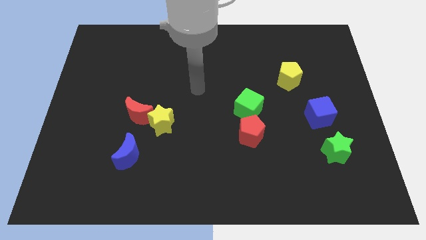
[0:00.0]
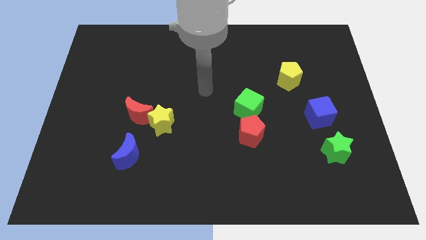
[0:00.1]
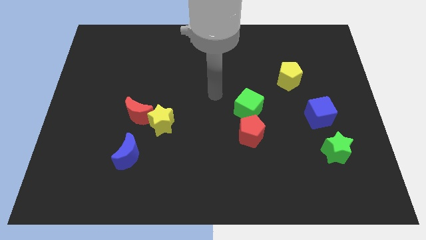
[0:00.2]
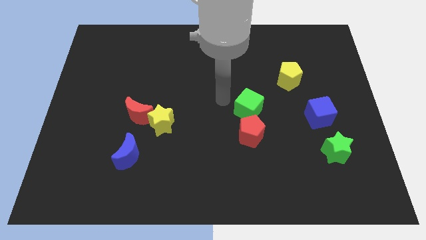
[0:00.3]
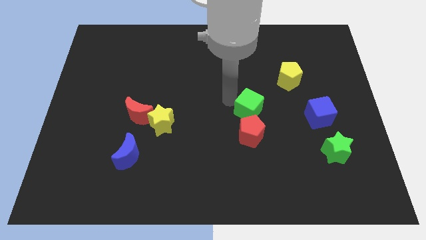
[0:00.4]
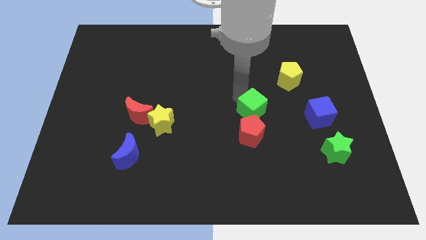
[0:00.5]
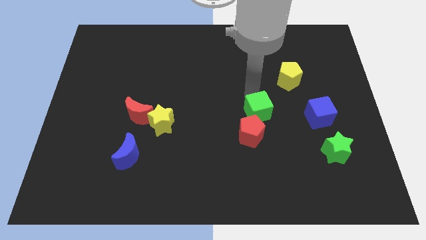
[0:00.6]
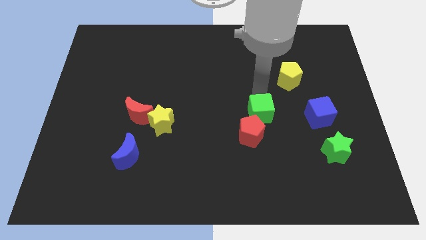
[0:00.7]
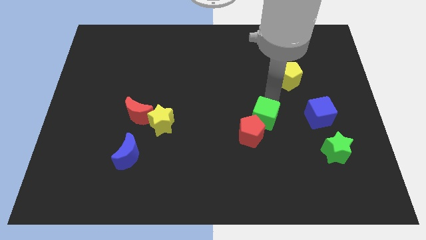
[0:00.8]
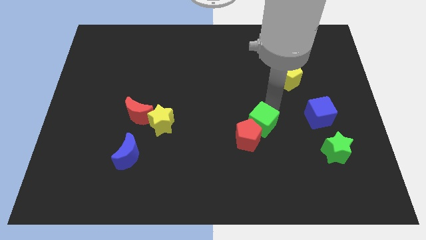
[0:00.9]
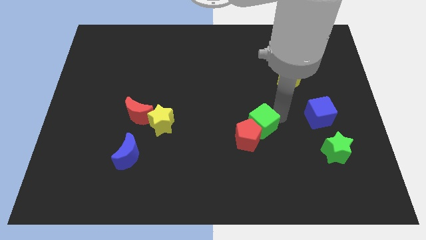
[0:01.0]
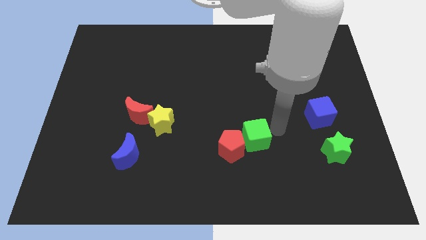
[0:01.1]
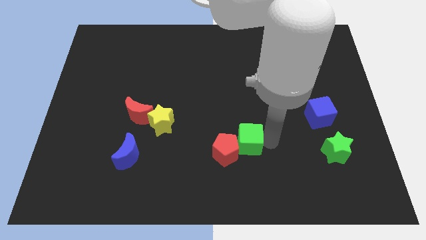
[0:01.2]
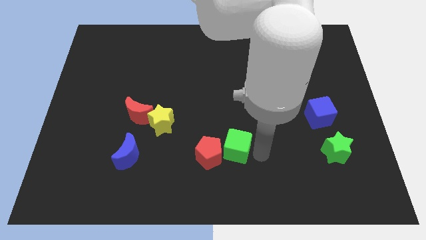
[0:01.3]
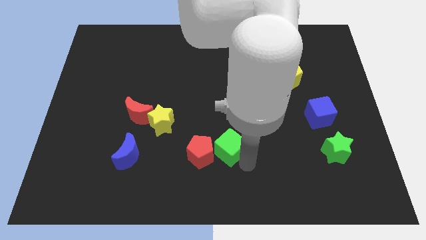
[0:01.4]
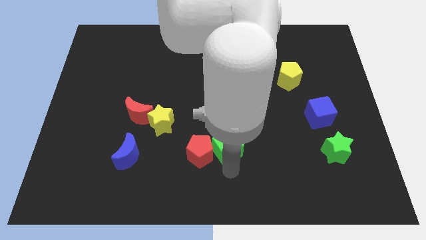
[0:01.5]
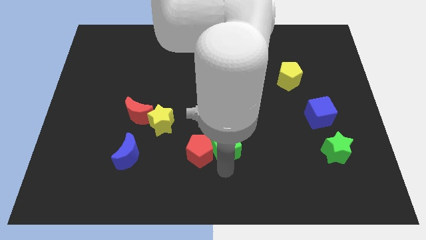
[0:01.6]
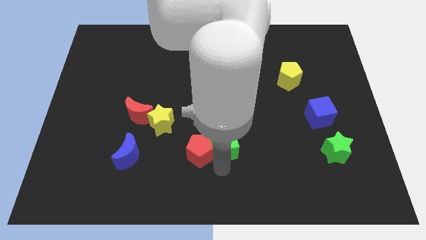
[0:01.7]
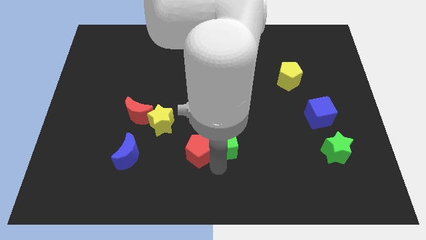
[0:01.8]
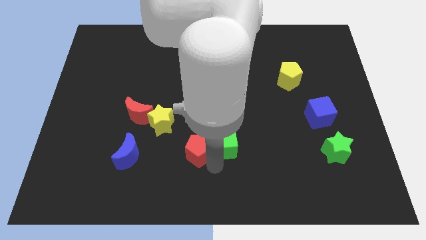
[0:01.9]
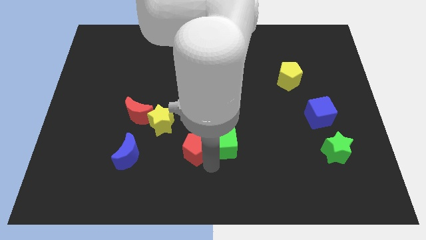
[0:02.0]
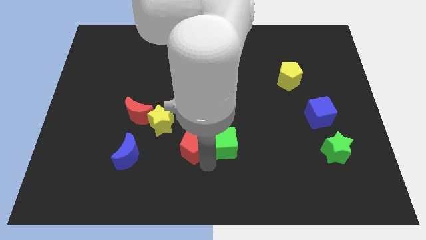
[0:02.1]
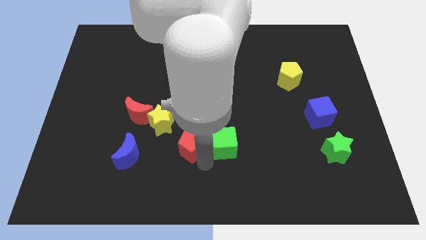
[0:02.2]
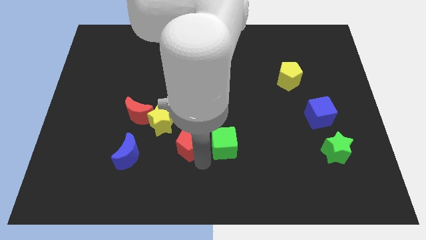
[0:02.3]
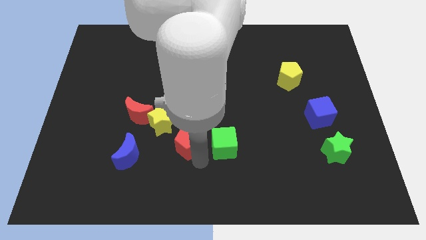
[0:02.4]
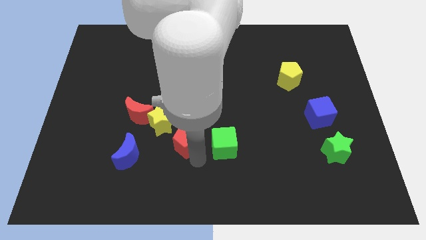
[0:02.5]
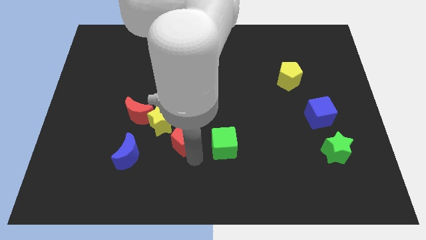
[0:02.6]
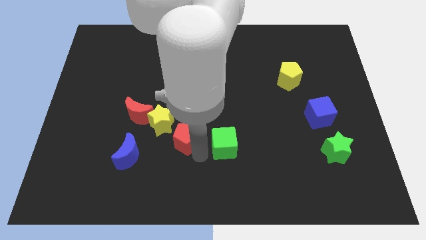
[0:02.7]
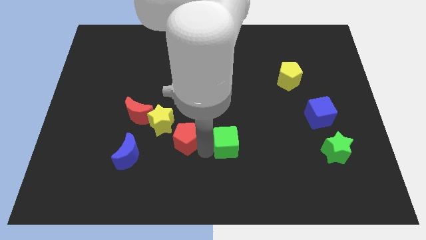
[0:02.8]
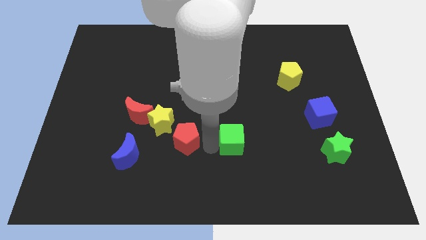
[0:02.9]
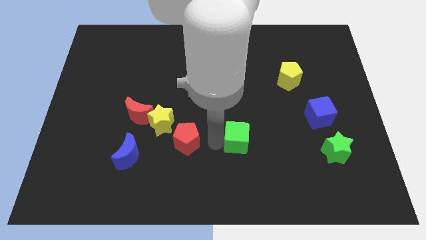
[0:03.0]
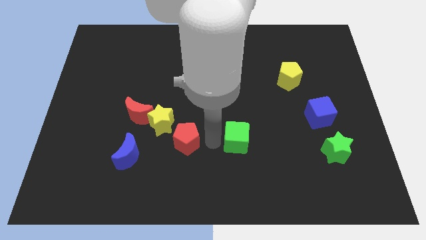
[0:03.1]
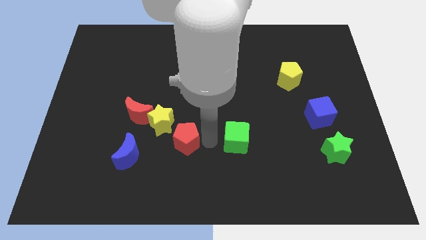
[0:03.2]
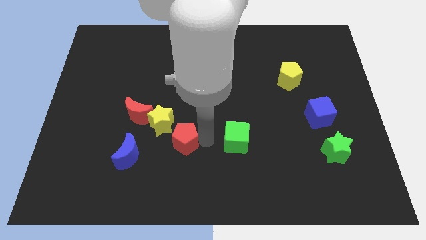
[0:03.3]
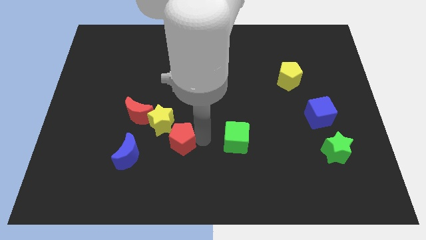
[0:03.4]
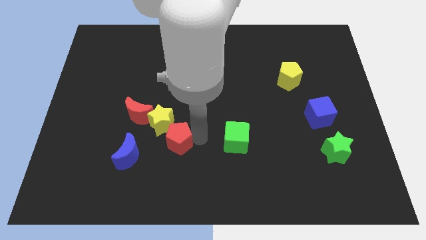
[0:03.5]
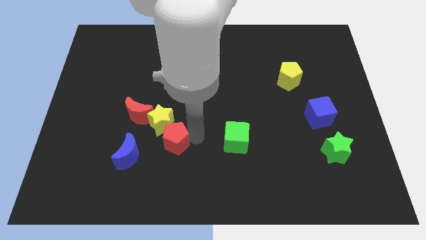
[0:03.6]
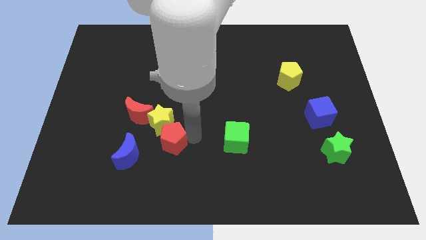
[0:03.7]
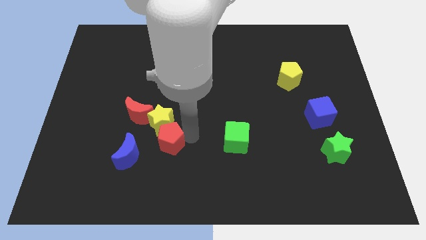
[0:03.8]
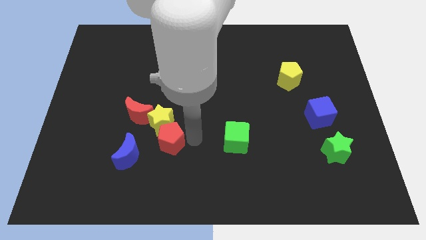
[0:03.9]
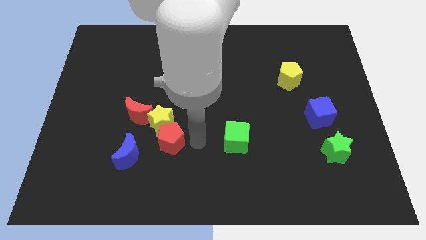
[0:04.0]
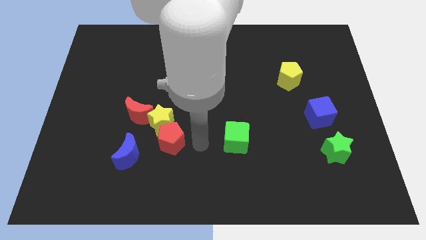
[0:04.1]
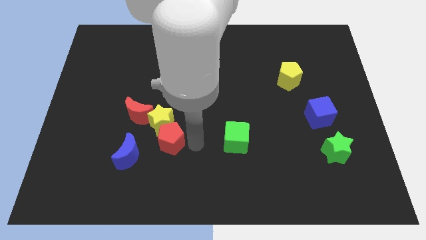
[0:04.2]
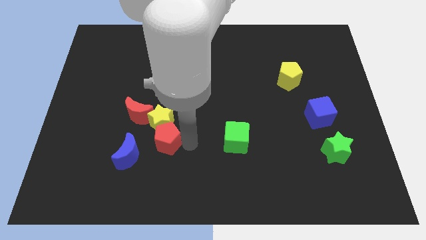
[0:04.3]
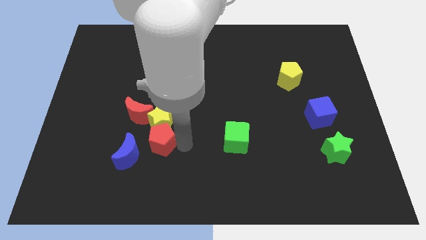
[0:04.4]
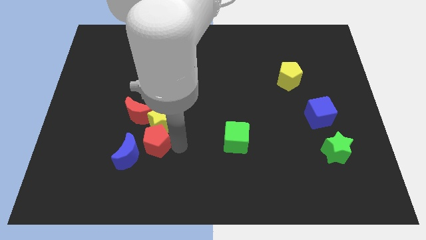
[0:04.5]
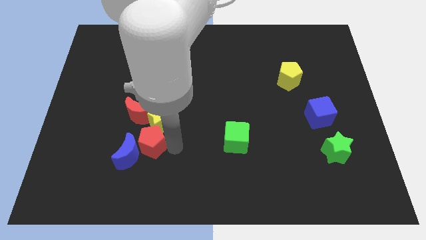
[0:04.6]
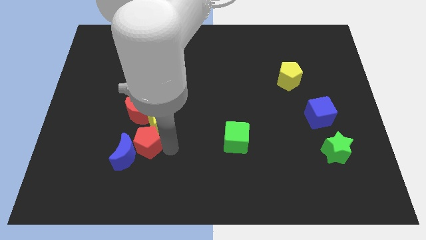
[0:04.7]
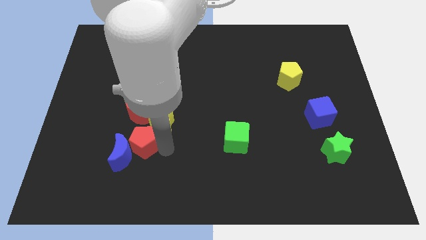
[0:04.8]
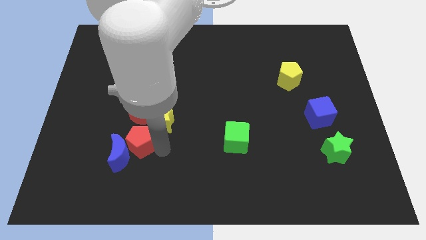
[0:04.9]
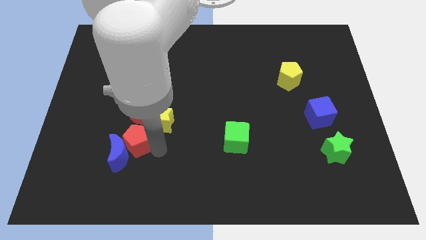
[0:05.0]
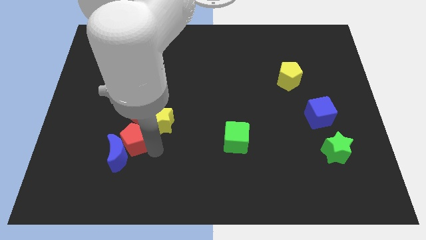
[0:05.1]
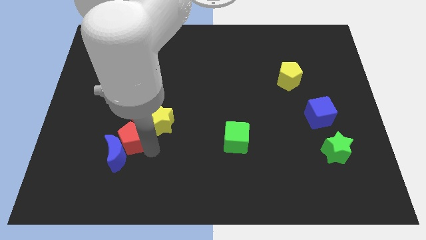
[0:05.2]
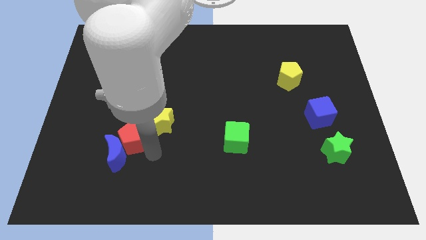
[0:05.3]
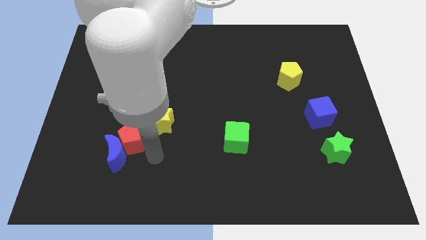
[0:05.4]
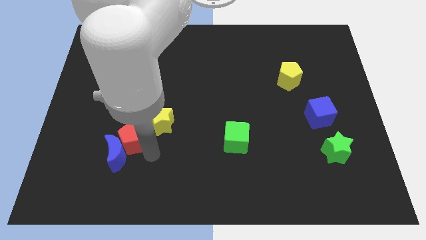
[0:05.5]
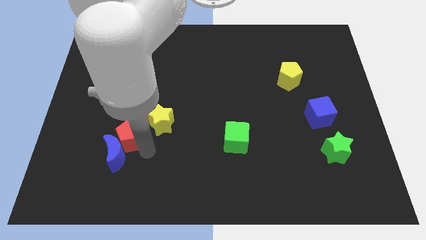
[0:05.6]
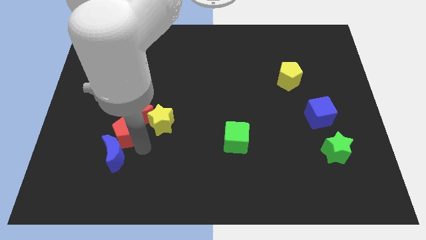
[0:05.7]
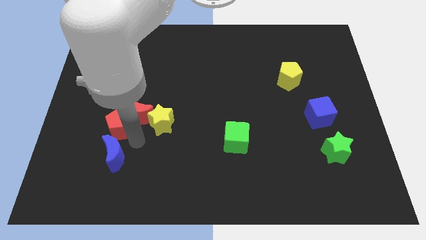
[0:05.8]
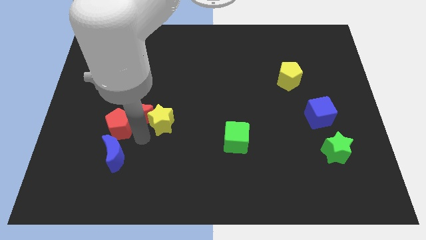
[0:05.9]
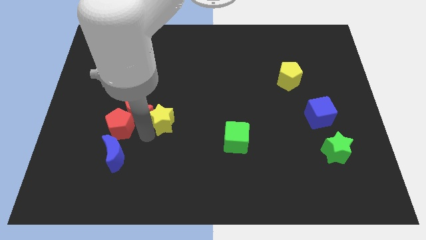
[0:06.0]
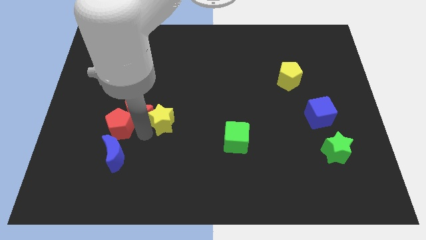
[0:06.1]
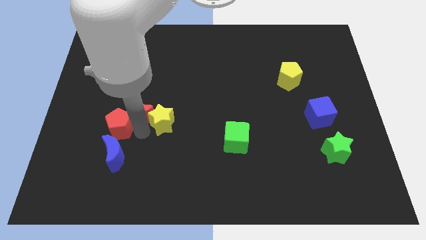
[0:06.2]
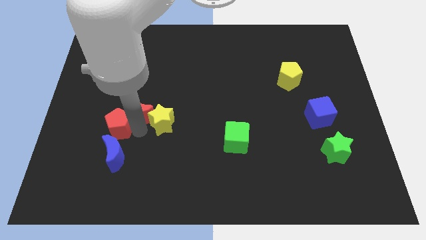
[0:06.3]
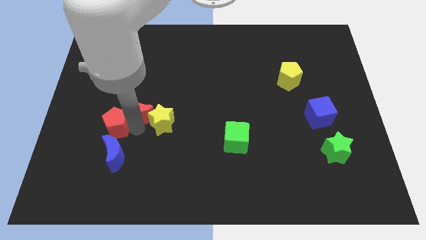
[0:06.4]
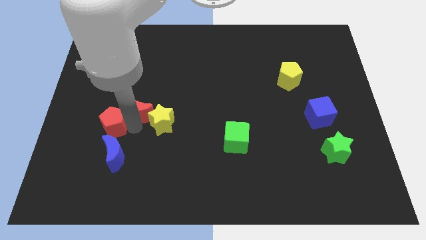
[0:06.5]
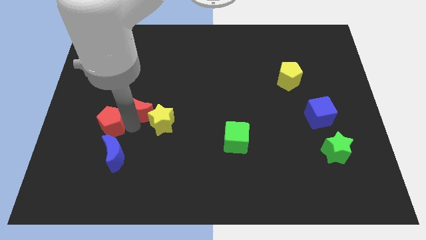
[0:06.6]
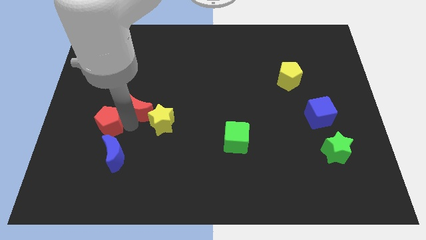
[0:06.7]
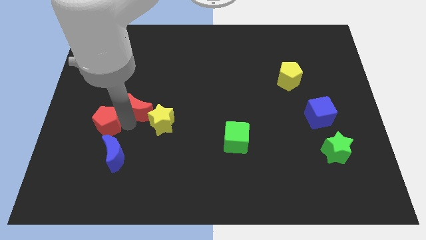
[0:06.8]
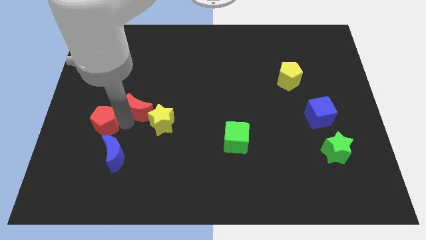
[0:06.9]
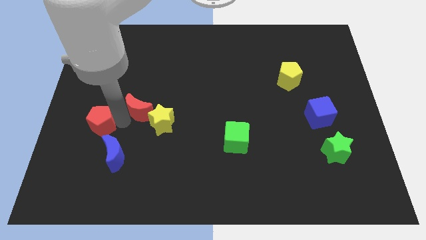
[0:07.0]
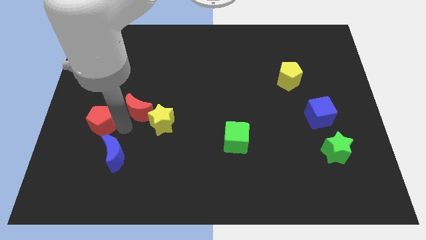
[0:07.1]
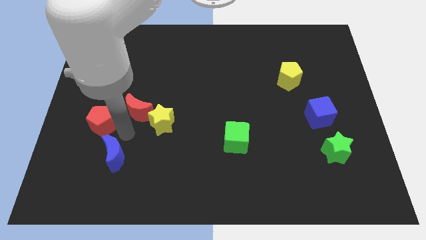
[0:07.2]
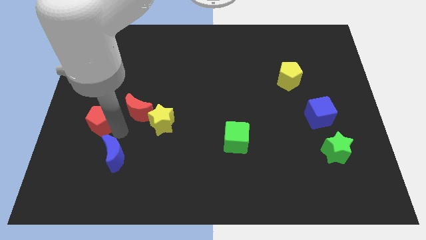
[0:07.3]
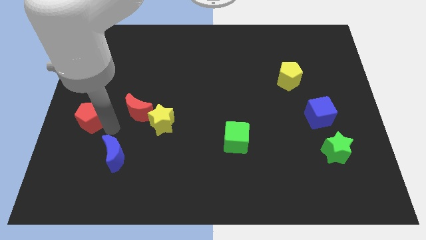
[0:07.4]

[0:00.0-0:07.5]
put the red pentagon to the left side of the board
